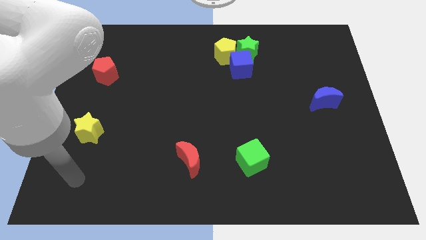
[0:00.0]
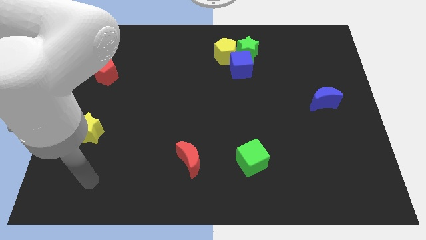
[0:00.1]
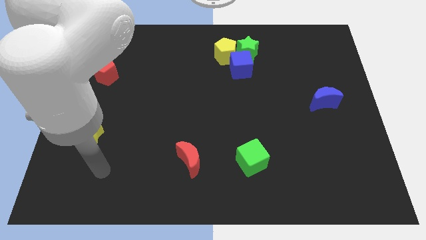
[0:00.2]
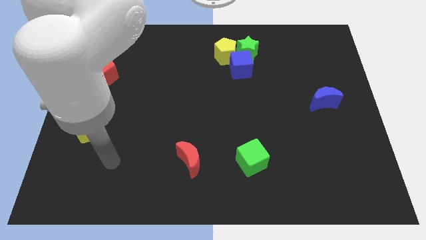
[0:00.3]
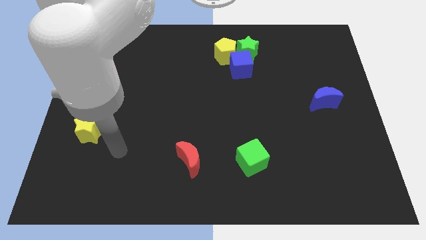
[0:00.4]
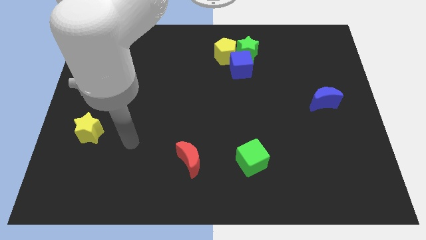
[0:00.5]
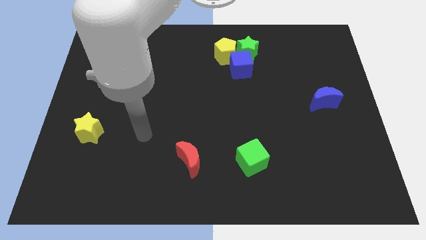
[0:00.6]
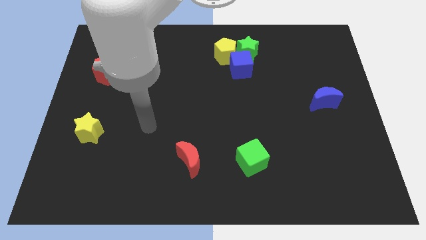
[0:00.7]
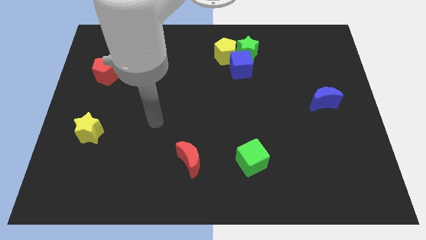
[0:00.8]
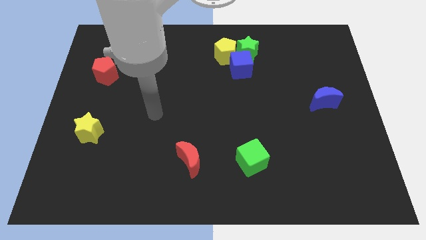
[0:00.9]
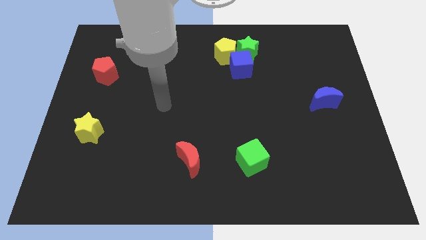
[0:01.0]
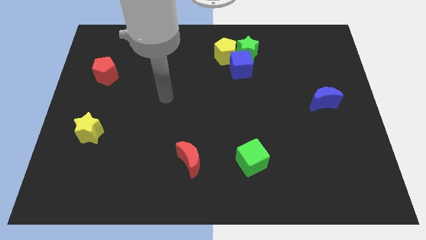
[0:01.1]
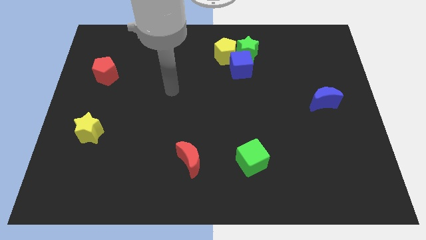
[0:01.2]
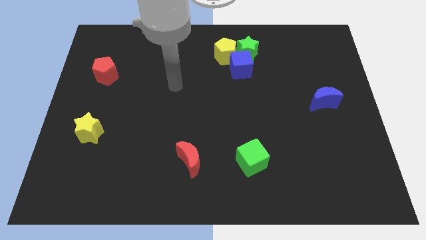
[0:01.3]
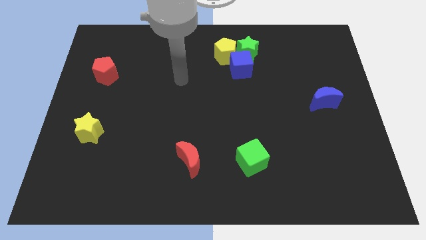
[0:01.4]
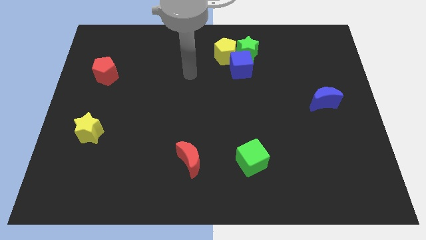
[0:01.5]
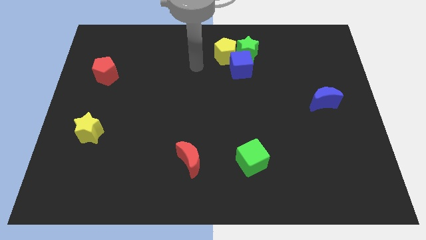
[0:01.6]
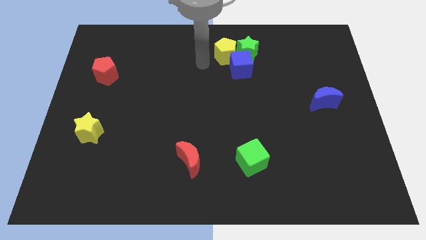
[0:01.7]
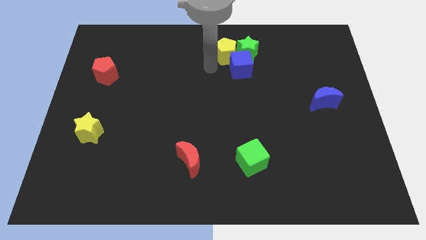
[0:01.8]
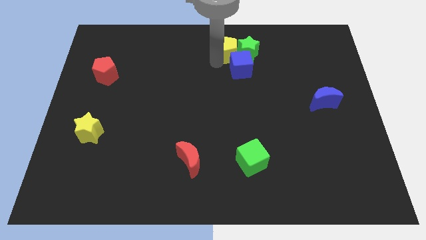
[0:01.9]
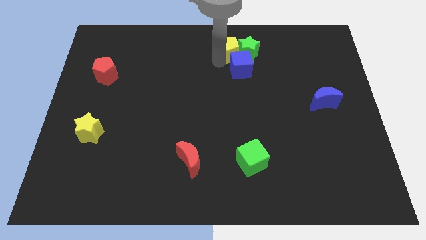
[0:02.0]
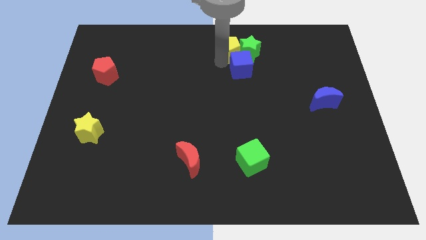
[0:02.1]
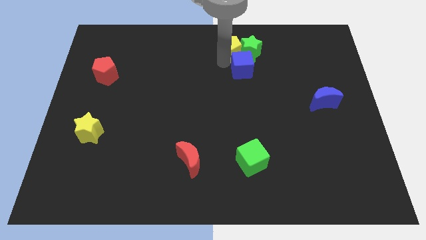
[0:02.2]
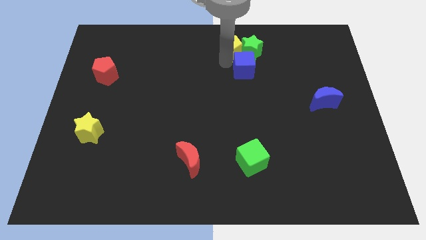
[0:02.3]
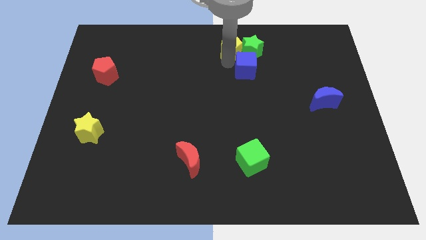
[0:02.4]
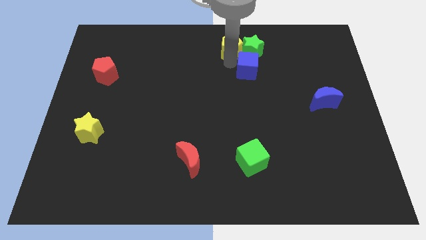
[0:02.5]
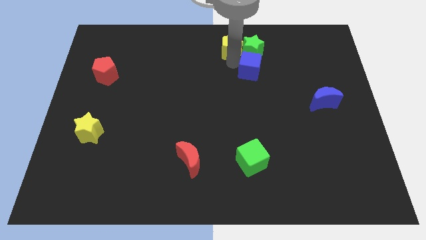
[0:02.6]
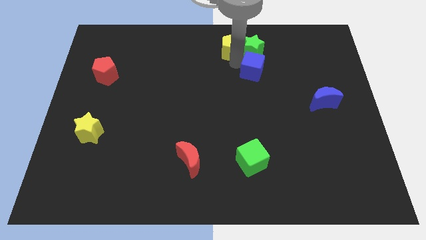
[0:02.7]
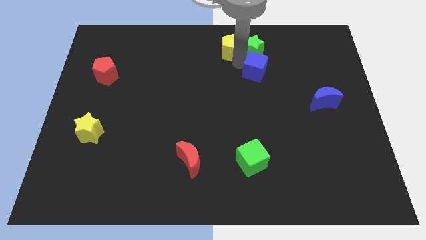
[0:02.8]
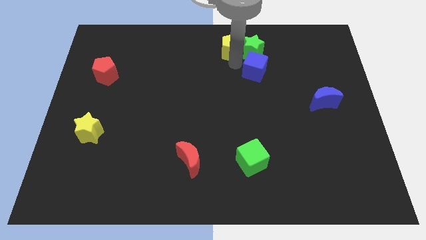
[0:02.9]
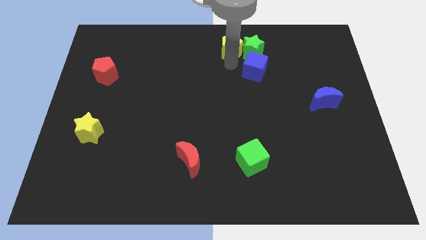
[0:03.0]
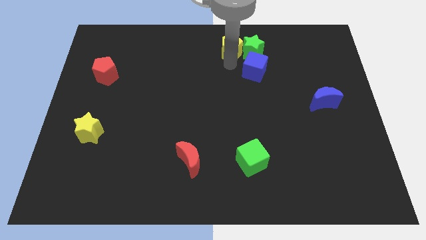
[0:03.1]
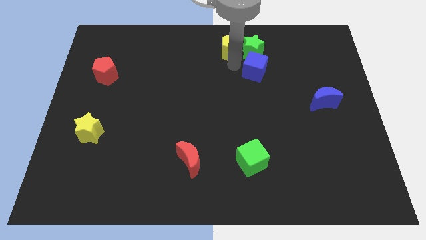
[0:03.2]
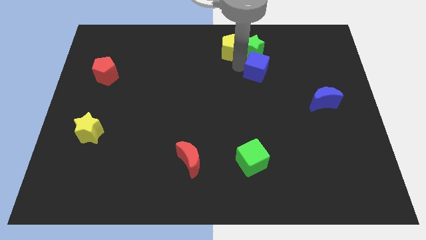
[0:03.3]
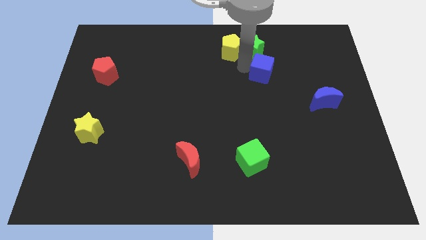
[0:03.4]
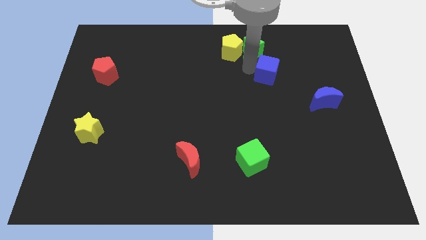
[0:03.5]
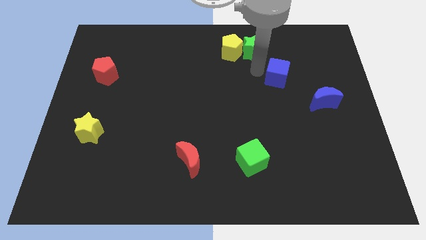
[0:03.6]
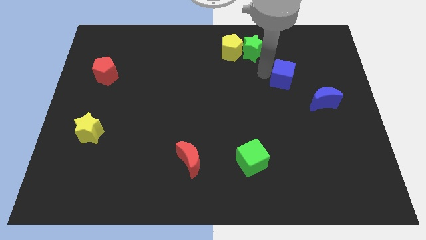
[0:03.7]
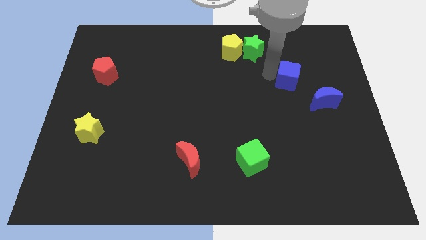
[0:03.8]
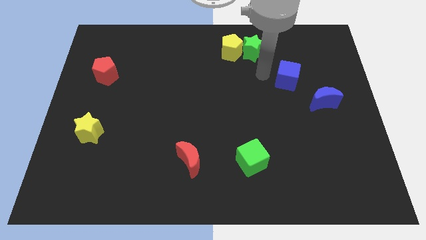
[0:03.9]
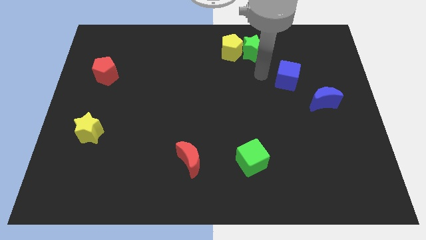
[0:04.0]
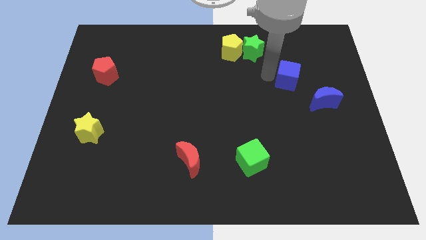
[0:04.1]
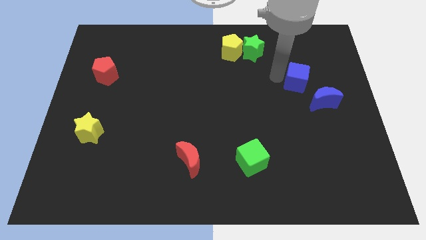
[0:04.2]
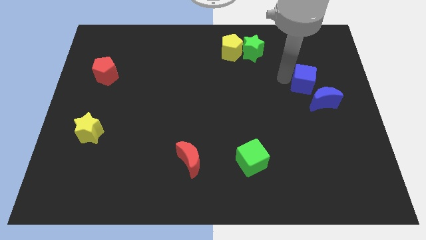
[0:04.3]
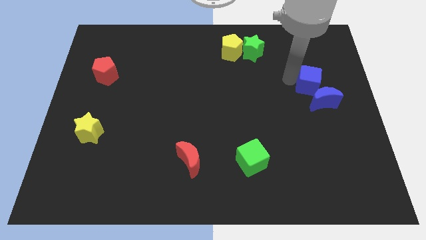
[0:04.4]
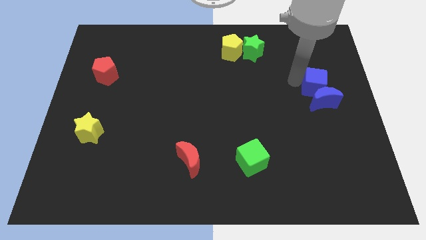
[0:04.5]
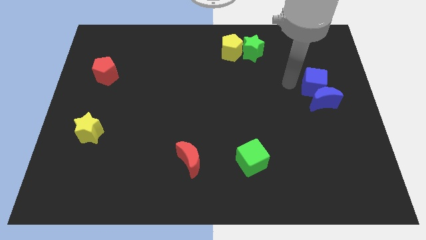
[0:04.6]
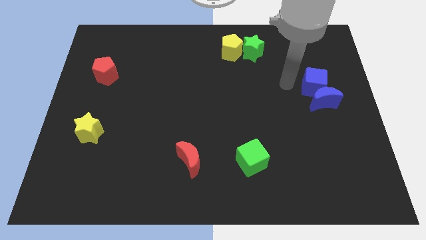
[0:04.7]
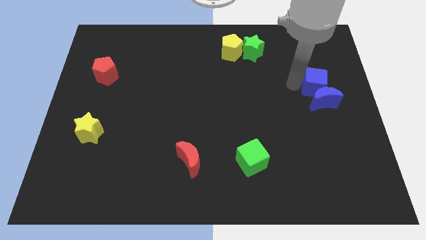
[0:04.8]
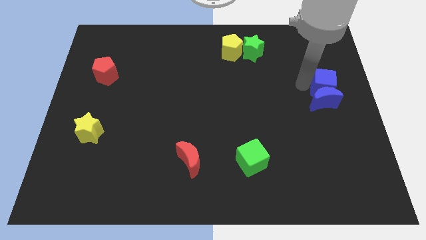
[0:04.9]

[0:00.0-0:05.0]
slide the blue cube to the right side

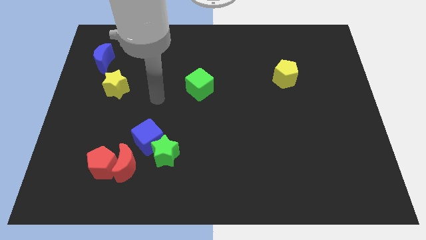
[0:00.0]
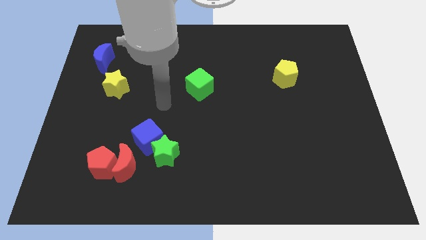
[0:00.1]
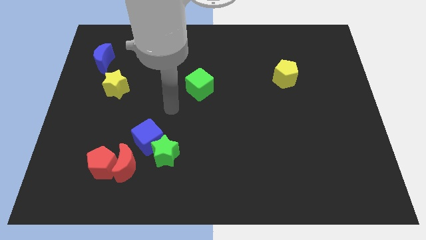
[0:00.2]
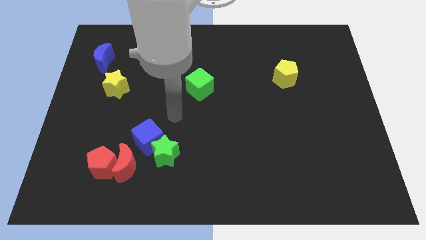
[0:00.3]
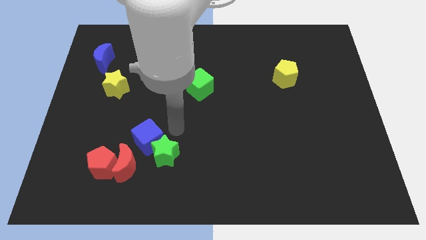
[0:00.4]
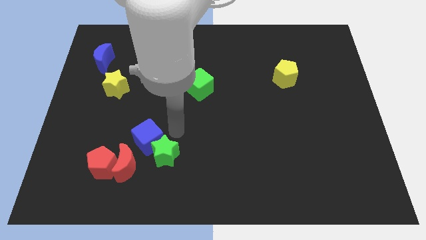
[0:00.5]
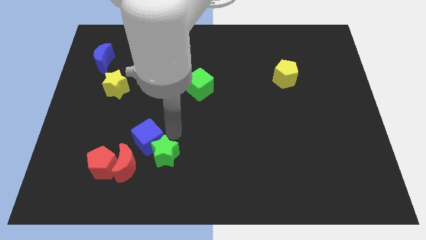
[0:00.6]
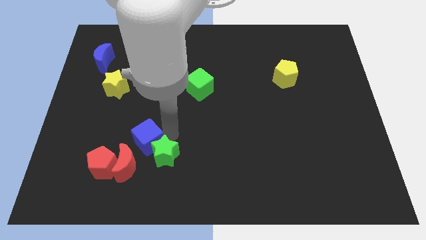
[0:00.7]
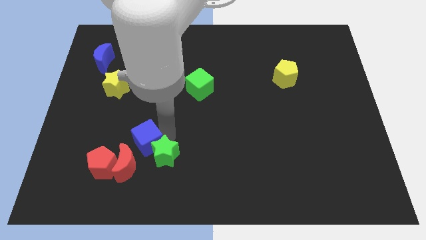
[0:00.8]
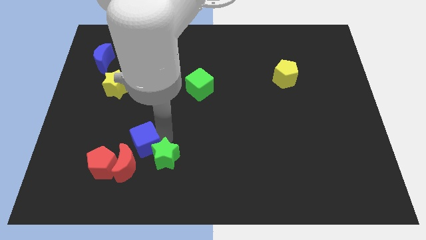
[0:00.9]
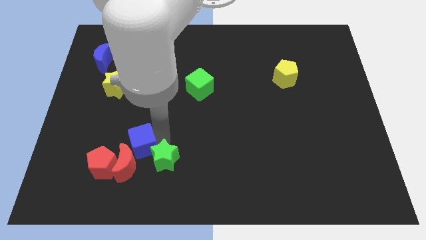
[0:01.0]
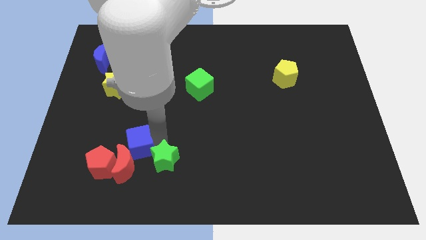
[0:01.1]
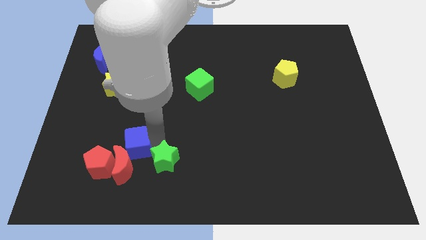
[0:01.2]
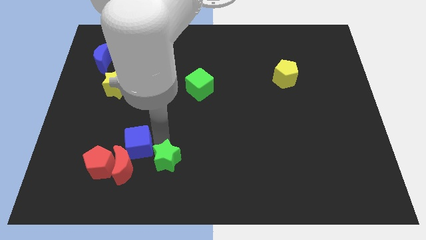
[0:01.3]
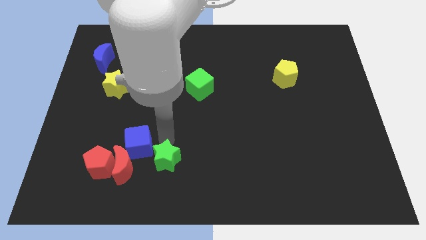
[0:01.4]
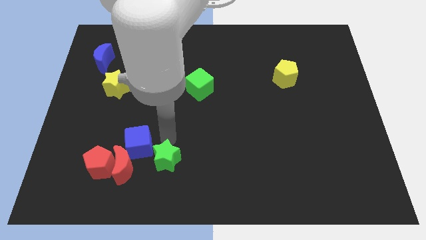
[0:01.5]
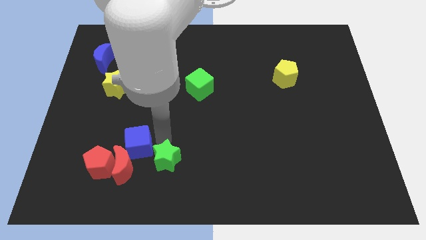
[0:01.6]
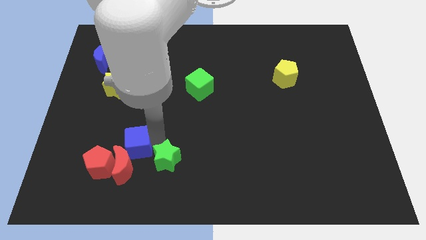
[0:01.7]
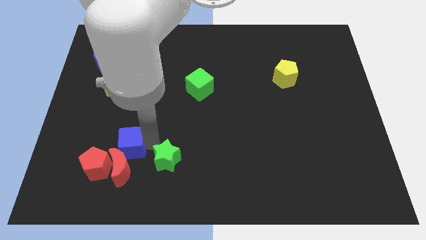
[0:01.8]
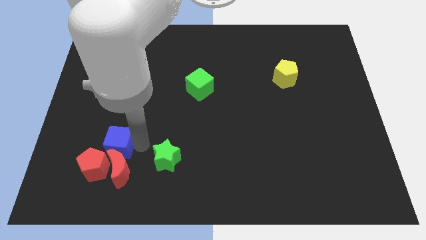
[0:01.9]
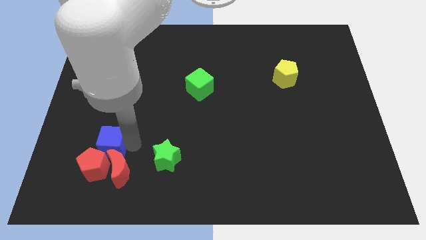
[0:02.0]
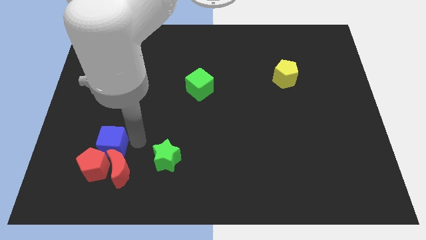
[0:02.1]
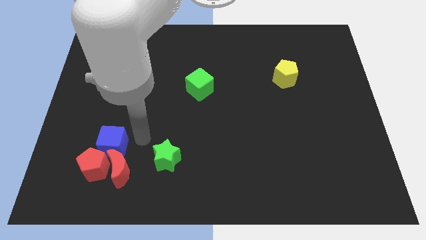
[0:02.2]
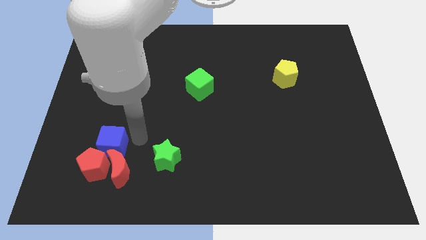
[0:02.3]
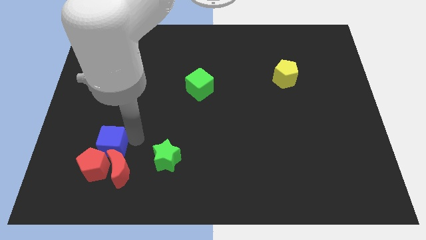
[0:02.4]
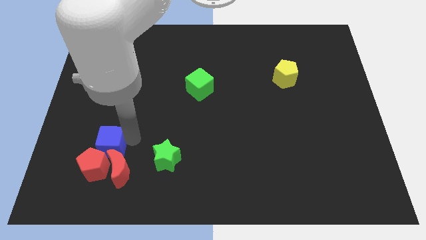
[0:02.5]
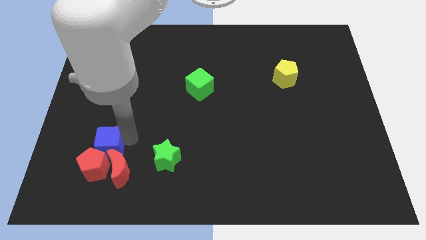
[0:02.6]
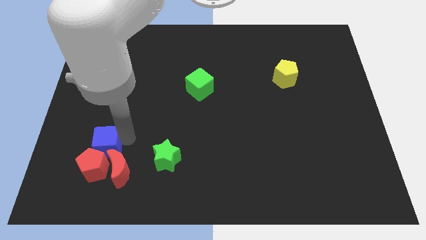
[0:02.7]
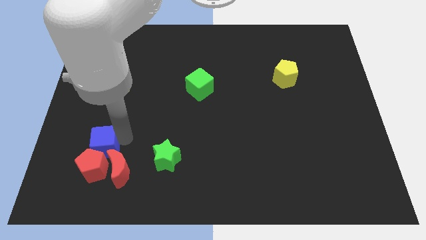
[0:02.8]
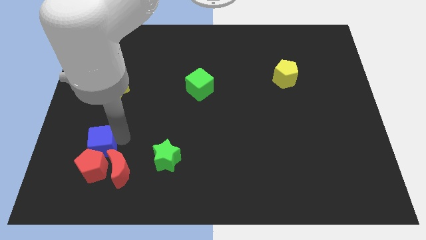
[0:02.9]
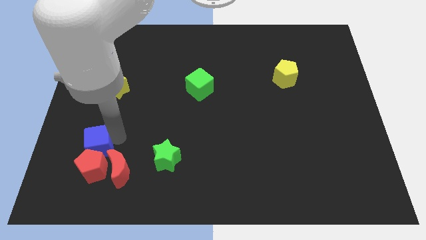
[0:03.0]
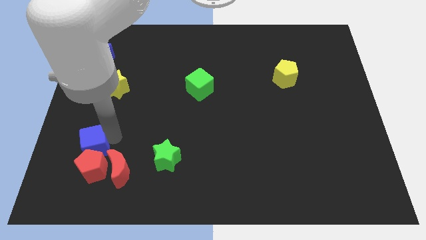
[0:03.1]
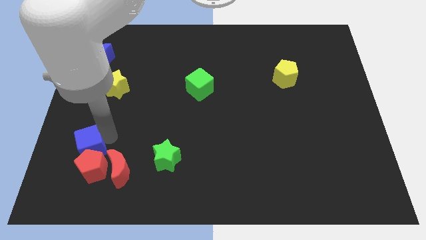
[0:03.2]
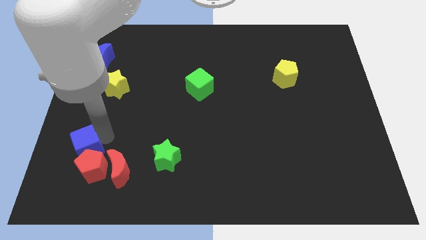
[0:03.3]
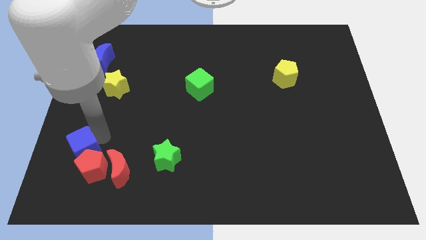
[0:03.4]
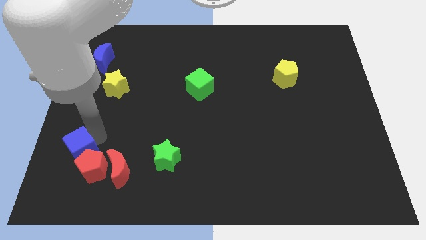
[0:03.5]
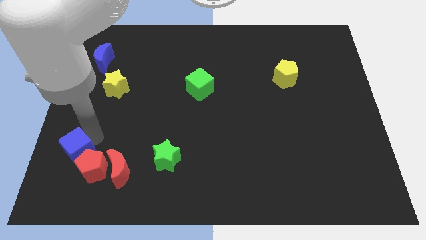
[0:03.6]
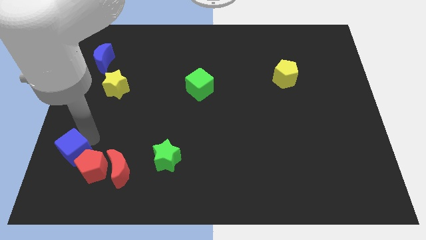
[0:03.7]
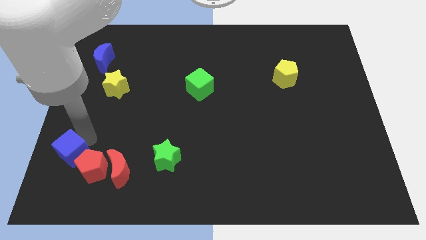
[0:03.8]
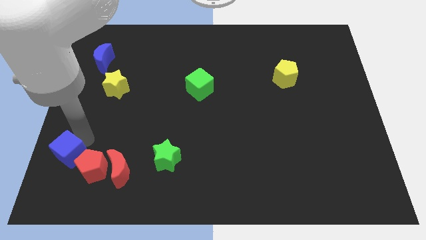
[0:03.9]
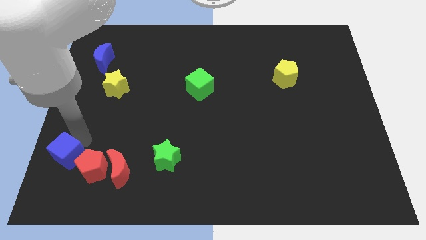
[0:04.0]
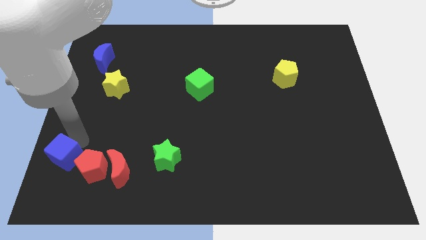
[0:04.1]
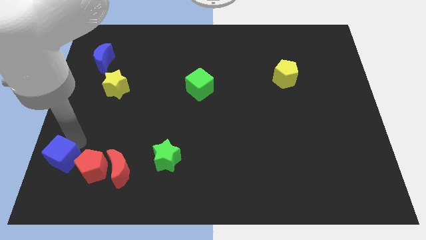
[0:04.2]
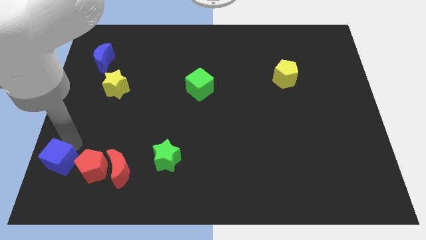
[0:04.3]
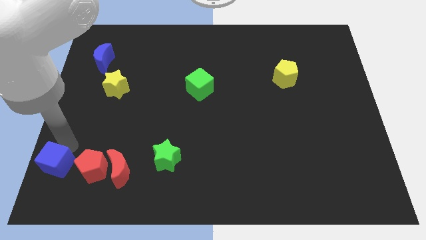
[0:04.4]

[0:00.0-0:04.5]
put the blue cube to the lower left corner
